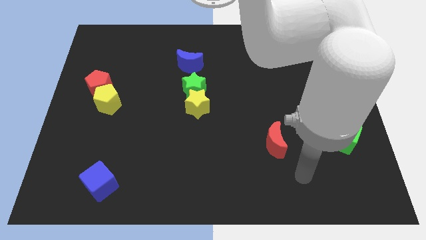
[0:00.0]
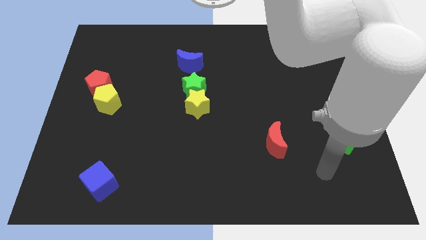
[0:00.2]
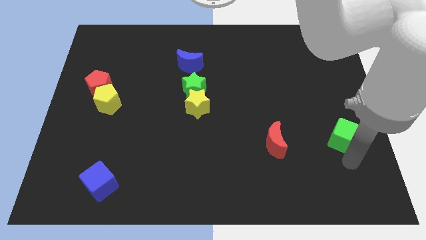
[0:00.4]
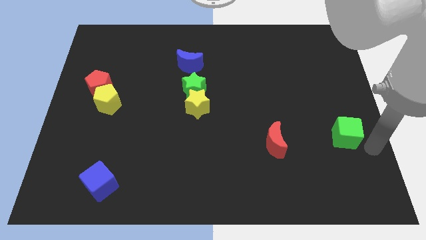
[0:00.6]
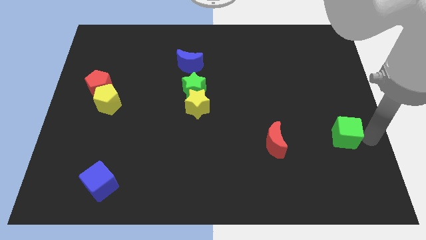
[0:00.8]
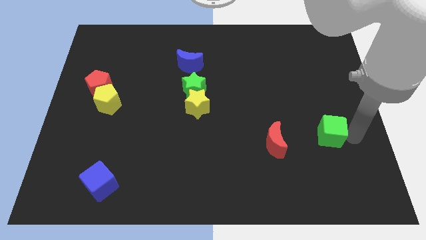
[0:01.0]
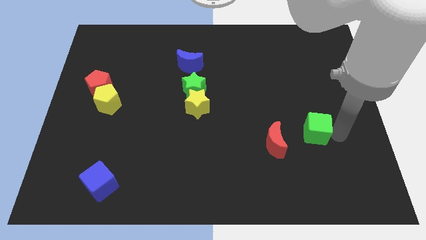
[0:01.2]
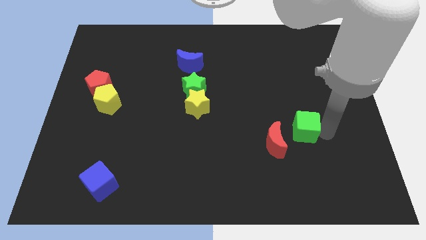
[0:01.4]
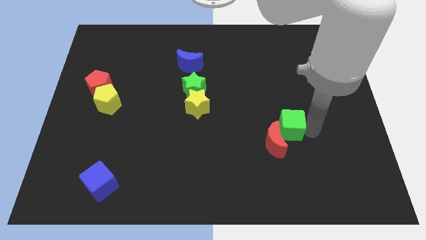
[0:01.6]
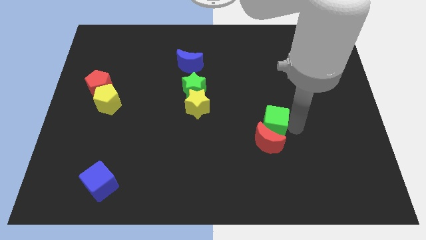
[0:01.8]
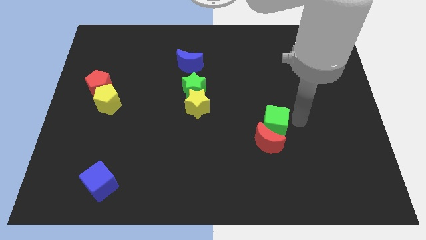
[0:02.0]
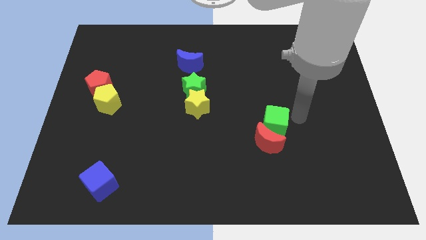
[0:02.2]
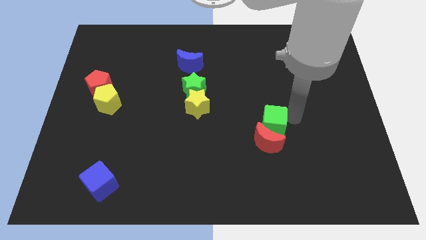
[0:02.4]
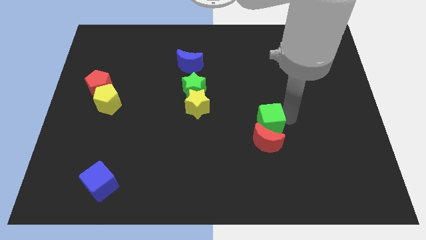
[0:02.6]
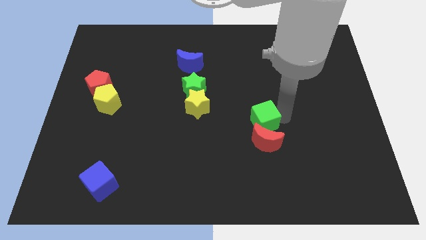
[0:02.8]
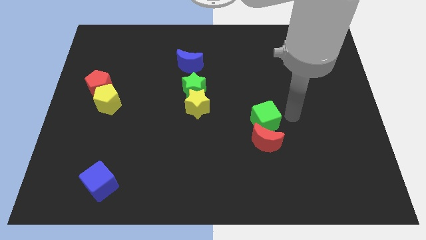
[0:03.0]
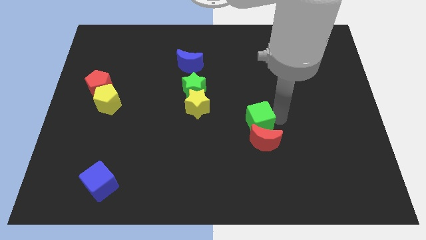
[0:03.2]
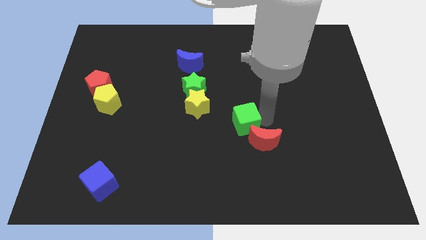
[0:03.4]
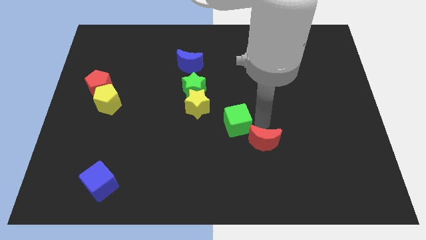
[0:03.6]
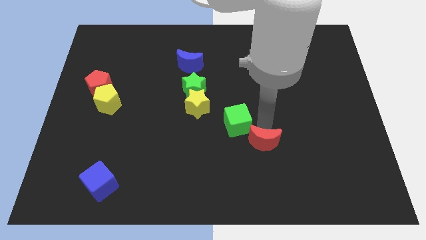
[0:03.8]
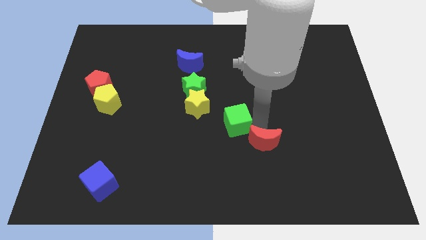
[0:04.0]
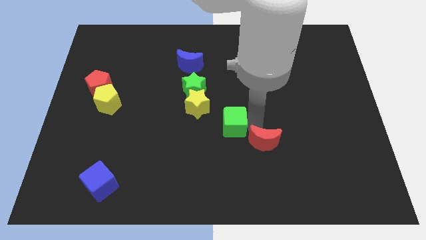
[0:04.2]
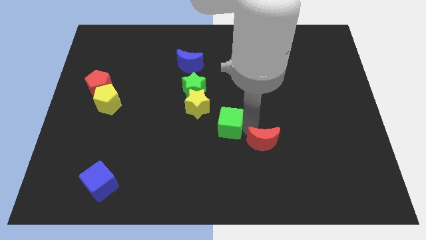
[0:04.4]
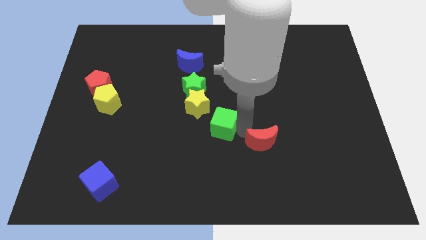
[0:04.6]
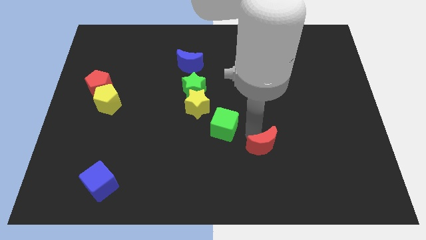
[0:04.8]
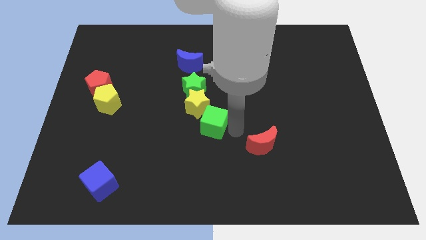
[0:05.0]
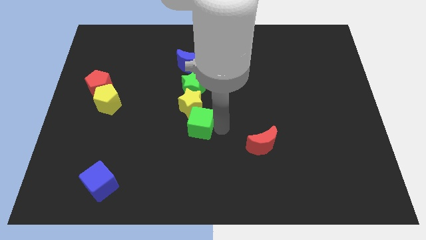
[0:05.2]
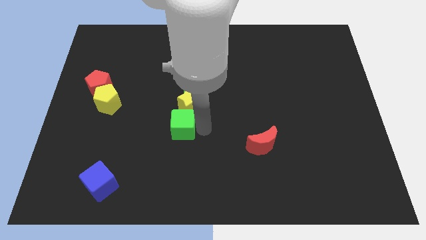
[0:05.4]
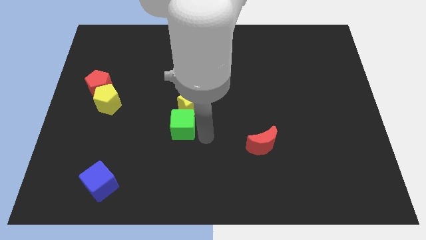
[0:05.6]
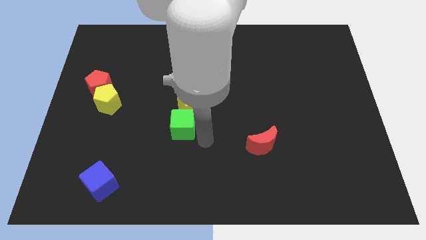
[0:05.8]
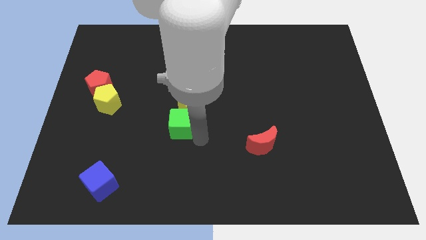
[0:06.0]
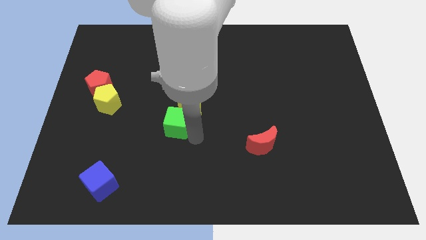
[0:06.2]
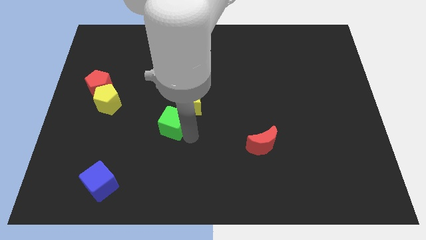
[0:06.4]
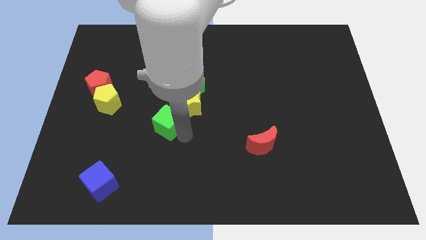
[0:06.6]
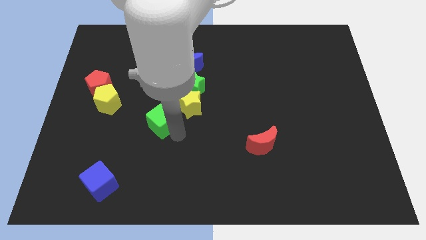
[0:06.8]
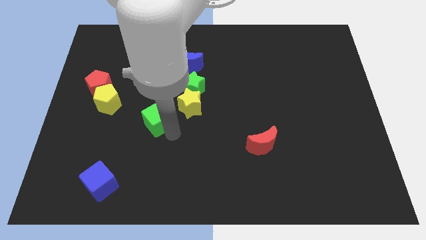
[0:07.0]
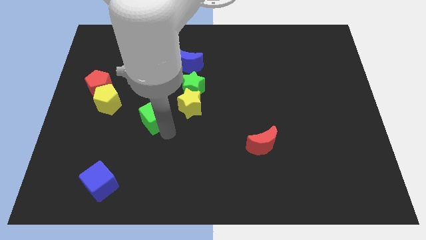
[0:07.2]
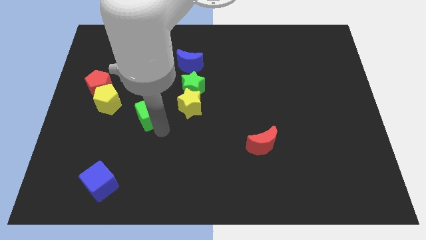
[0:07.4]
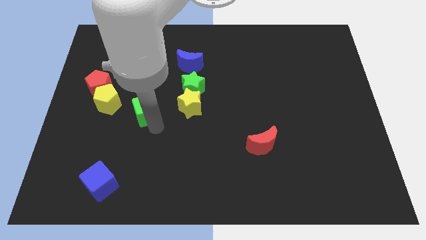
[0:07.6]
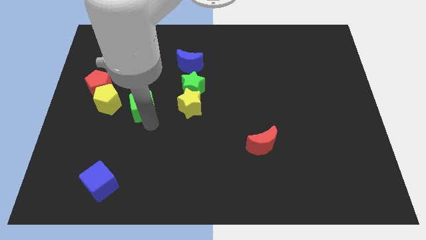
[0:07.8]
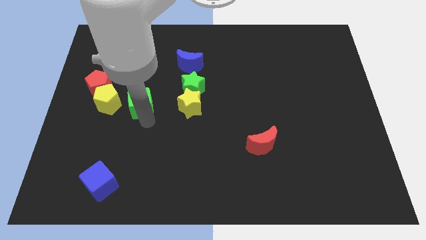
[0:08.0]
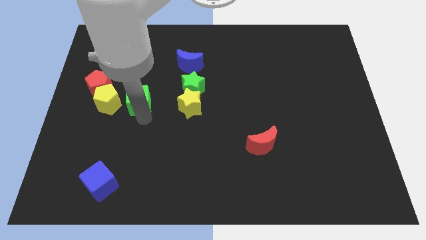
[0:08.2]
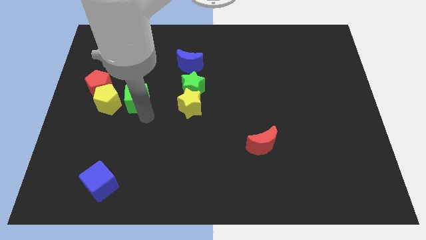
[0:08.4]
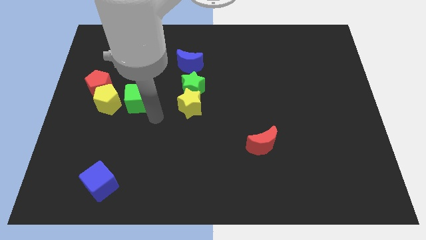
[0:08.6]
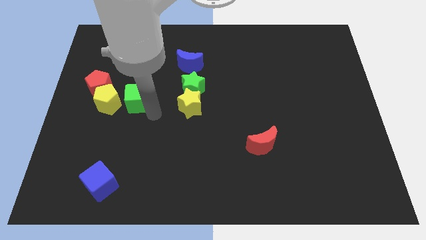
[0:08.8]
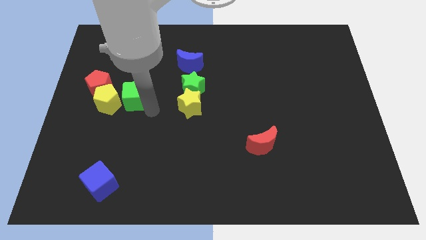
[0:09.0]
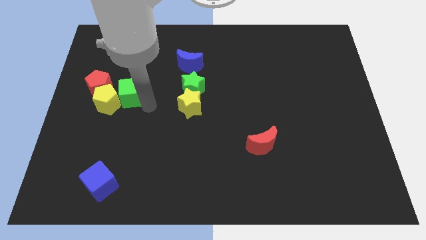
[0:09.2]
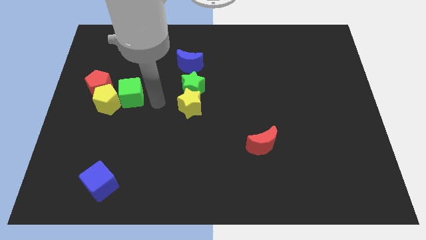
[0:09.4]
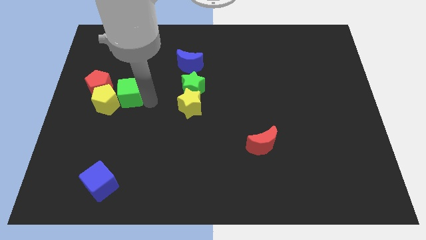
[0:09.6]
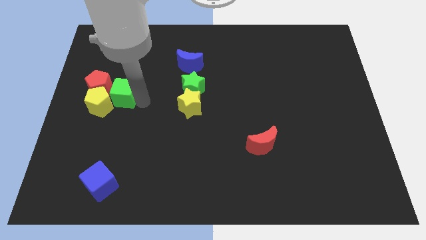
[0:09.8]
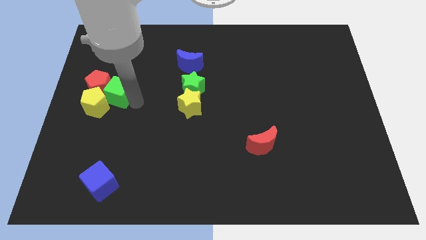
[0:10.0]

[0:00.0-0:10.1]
move the green cube to the red pentagon

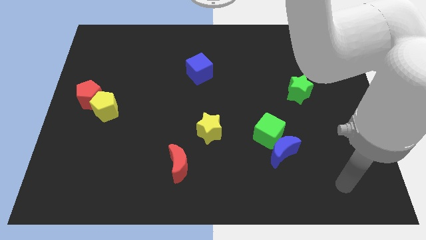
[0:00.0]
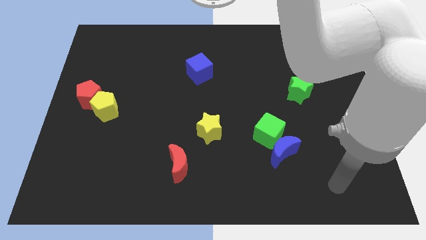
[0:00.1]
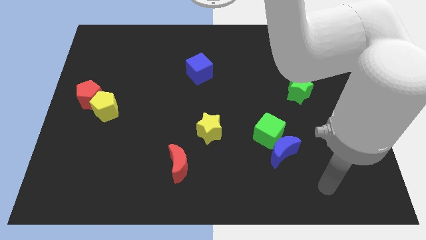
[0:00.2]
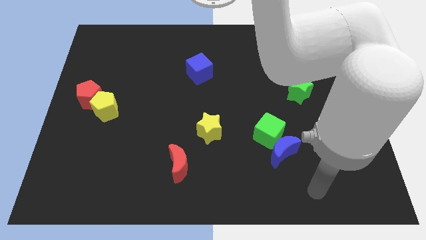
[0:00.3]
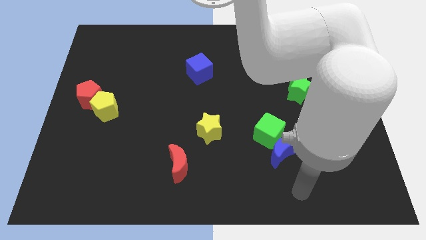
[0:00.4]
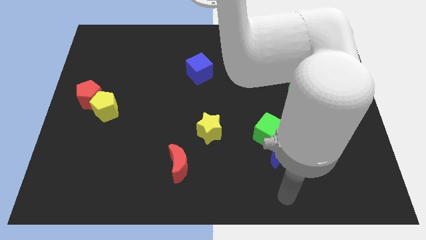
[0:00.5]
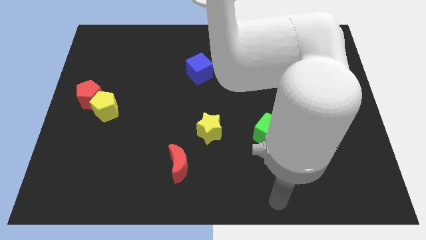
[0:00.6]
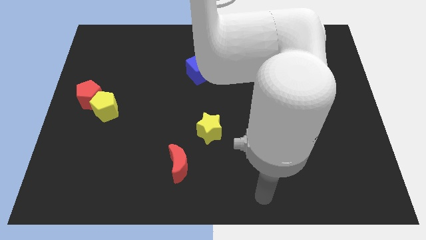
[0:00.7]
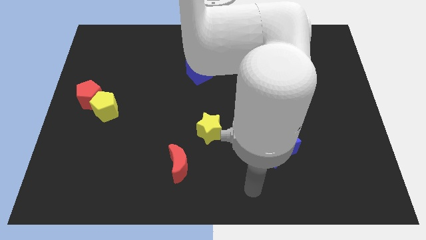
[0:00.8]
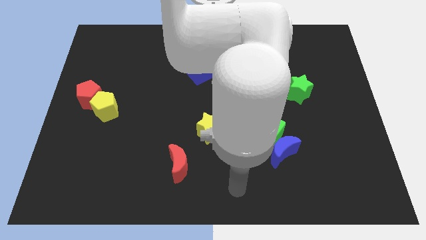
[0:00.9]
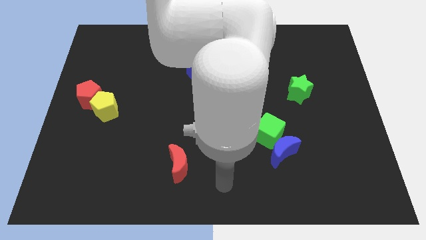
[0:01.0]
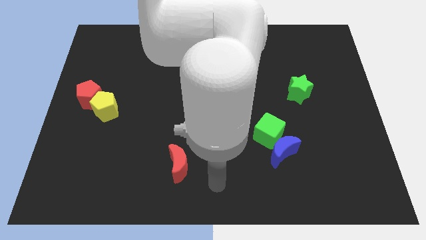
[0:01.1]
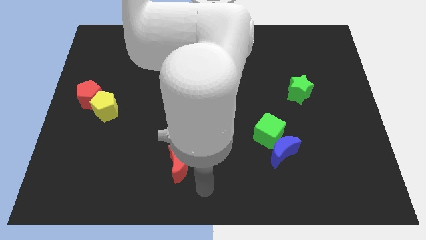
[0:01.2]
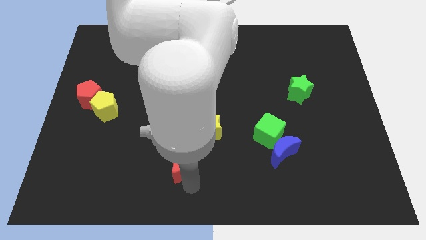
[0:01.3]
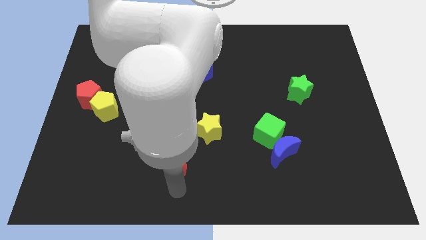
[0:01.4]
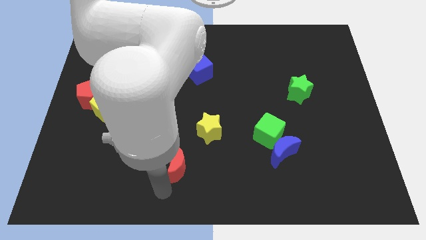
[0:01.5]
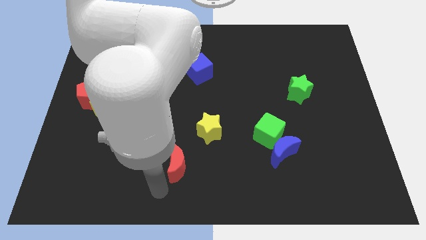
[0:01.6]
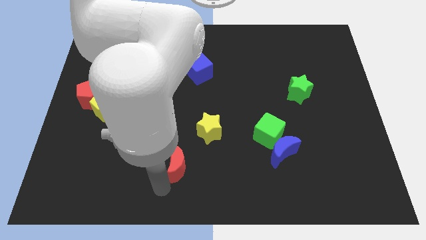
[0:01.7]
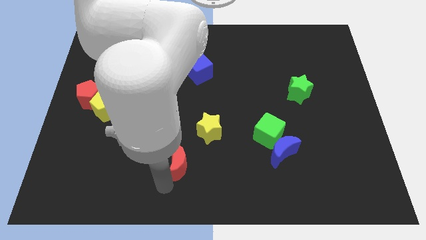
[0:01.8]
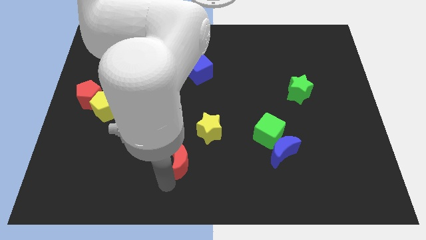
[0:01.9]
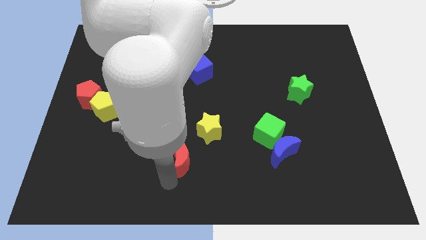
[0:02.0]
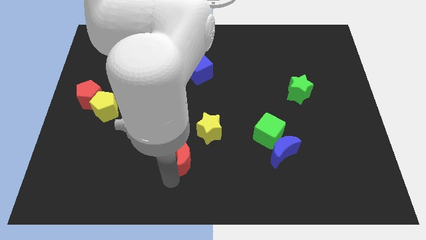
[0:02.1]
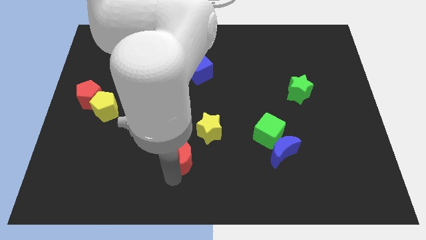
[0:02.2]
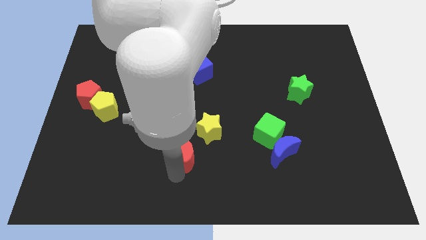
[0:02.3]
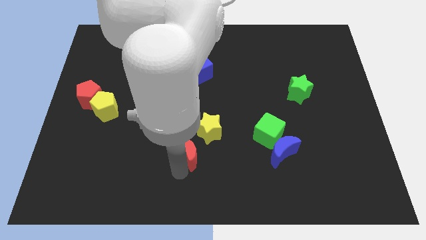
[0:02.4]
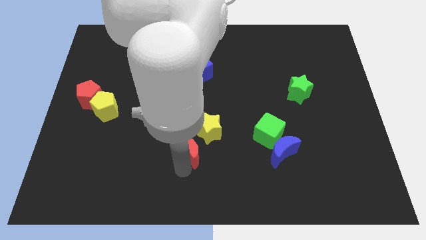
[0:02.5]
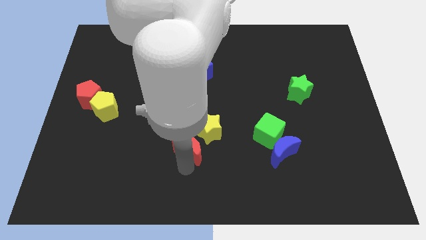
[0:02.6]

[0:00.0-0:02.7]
slide the red moon towards the yellow star
